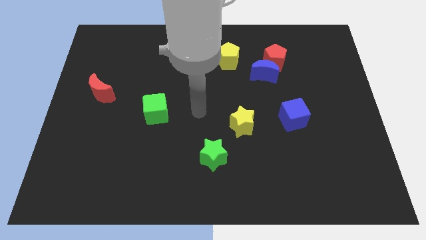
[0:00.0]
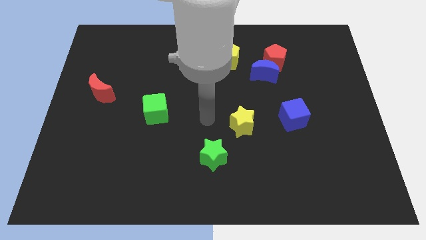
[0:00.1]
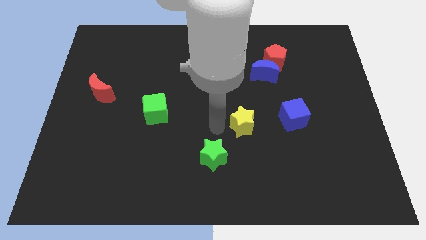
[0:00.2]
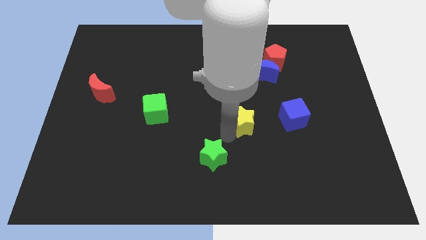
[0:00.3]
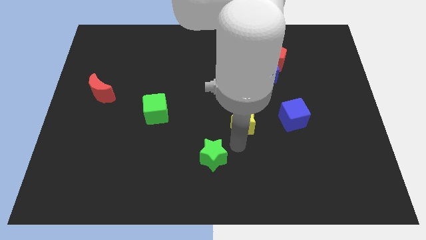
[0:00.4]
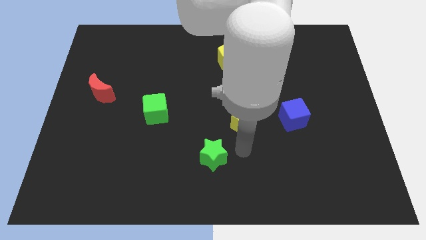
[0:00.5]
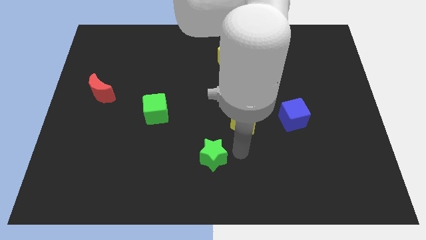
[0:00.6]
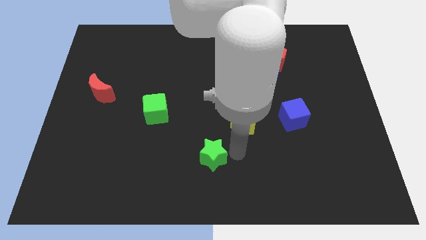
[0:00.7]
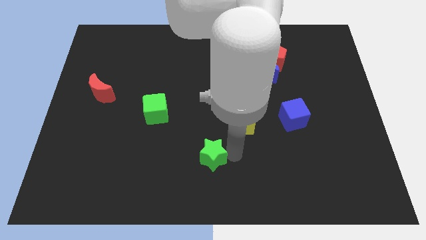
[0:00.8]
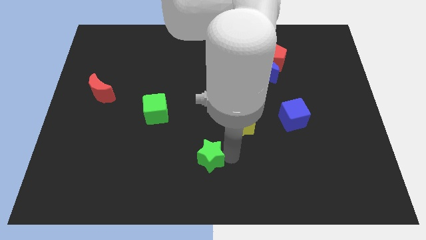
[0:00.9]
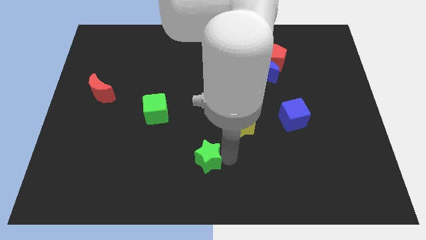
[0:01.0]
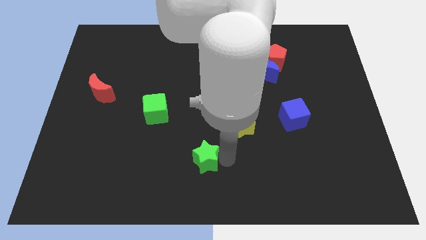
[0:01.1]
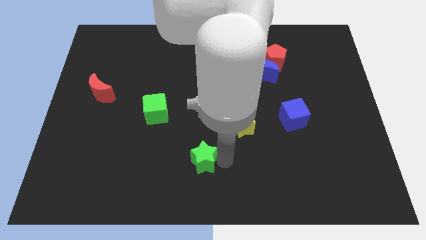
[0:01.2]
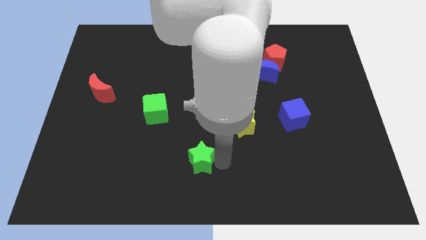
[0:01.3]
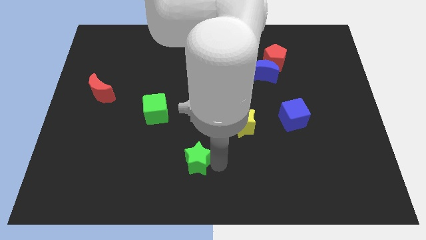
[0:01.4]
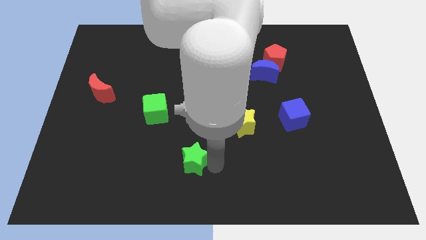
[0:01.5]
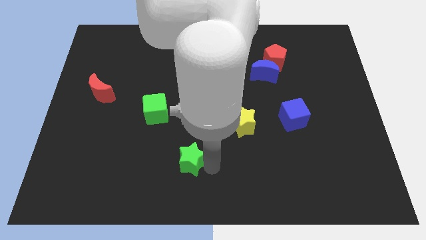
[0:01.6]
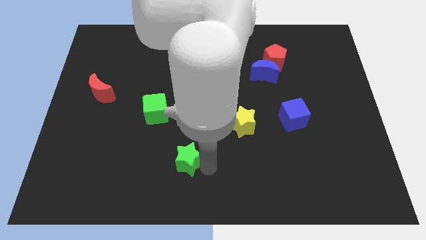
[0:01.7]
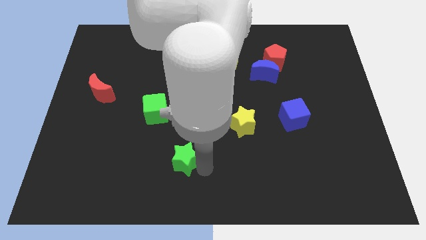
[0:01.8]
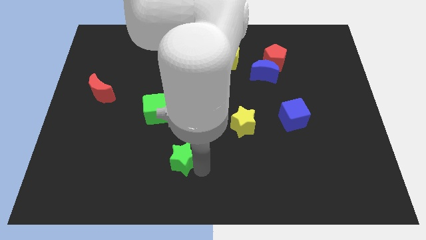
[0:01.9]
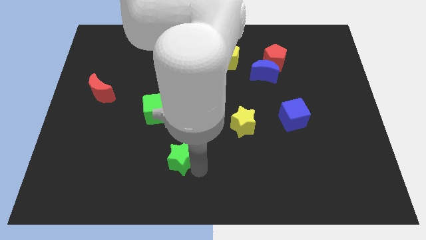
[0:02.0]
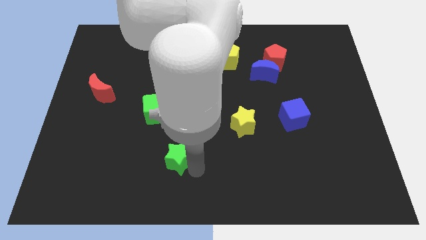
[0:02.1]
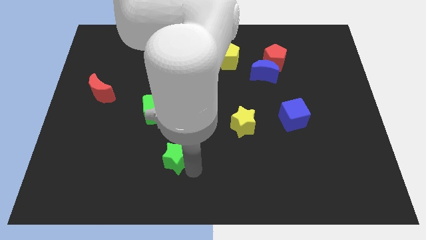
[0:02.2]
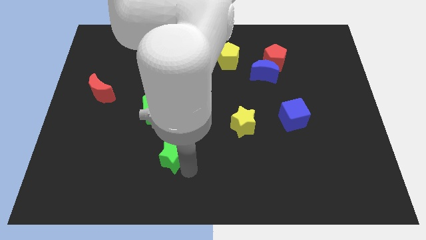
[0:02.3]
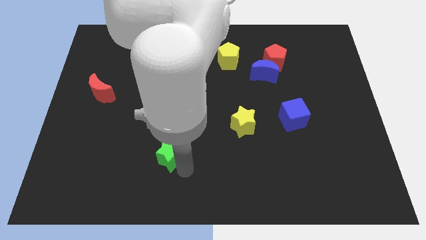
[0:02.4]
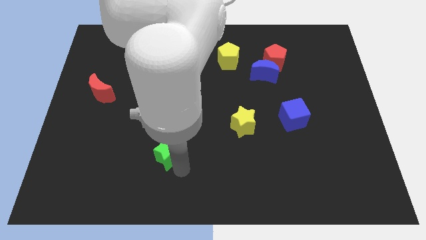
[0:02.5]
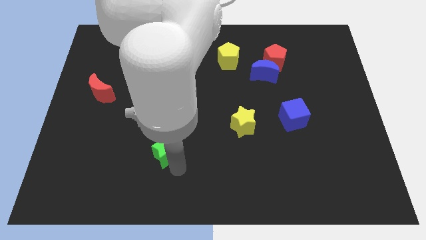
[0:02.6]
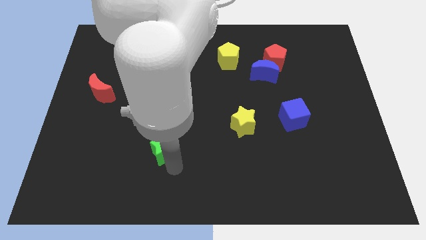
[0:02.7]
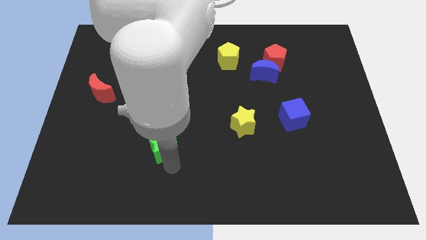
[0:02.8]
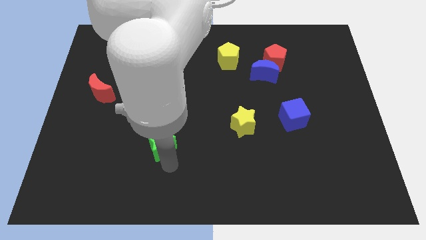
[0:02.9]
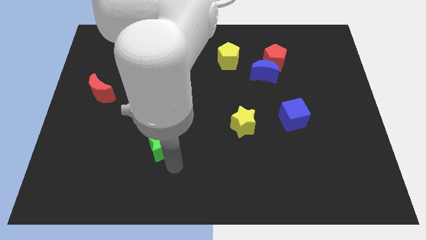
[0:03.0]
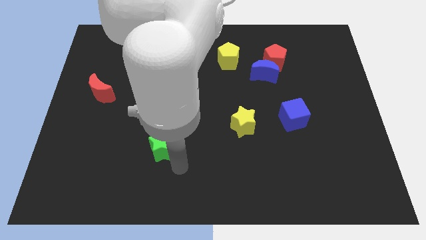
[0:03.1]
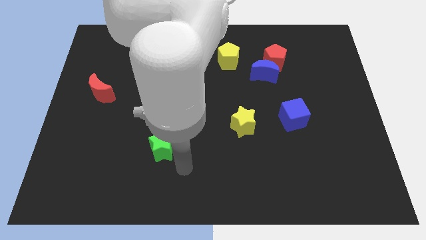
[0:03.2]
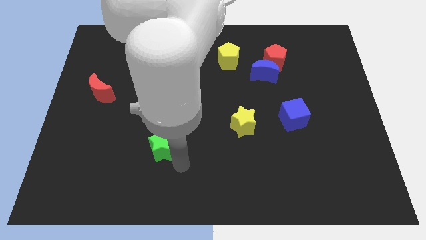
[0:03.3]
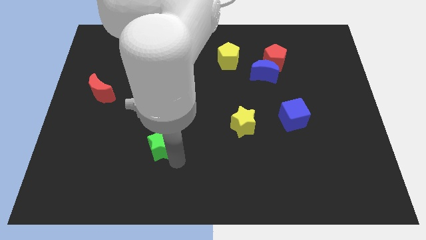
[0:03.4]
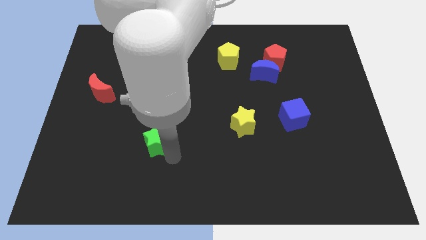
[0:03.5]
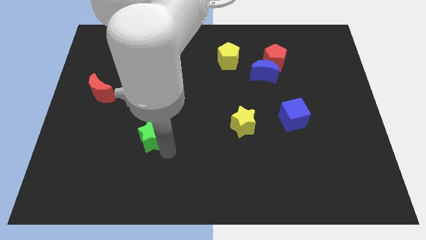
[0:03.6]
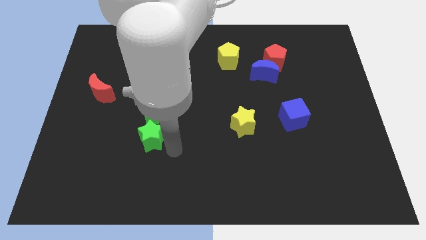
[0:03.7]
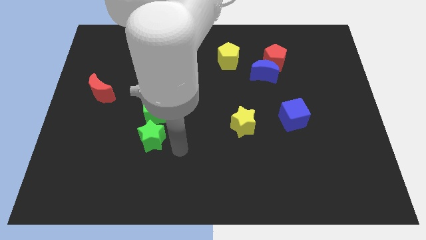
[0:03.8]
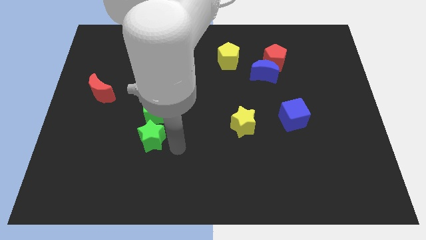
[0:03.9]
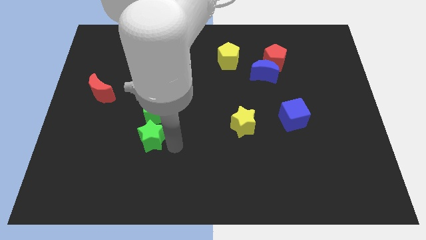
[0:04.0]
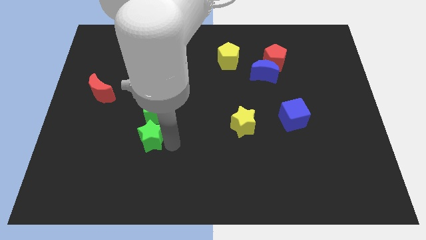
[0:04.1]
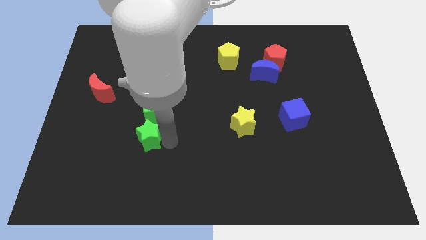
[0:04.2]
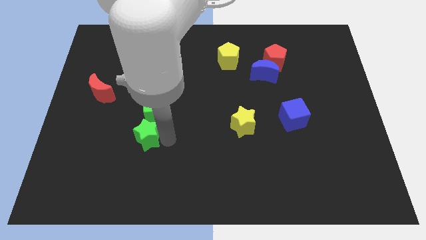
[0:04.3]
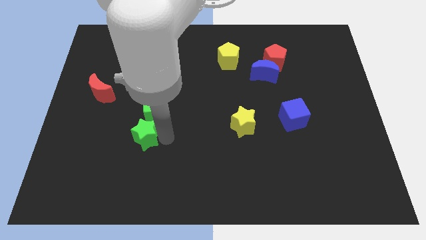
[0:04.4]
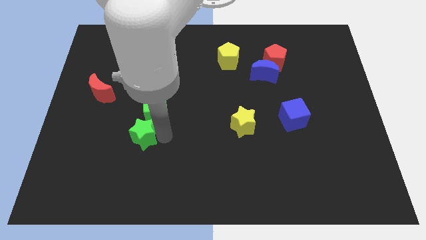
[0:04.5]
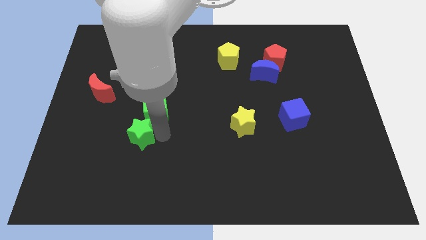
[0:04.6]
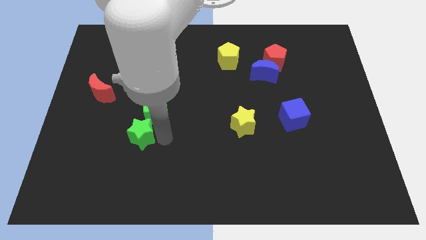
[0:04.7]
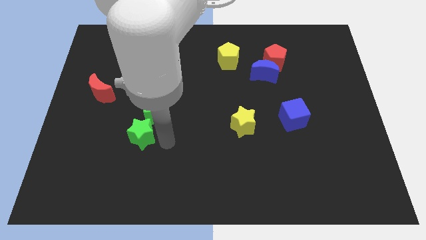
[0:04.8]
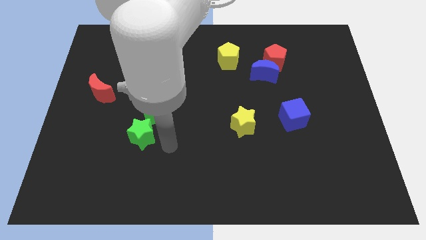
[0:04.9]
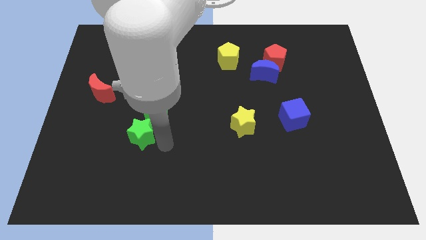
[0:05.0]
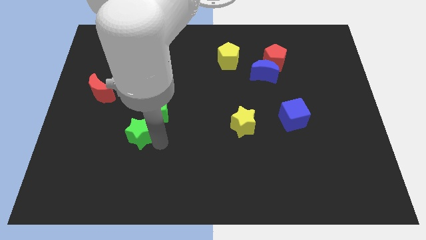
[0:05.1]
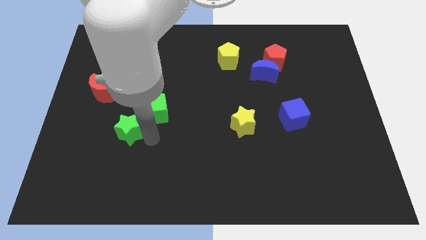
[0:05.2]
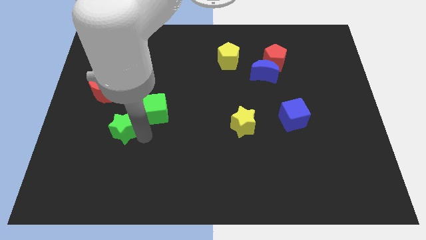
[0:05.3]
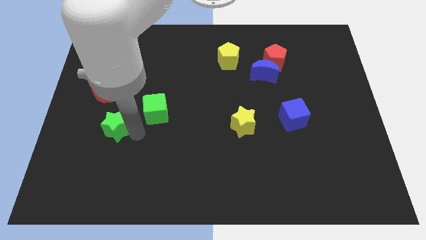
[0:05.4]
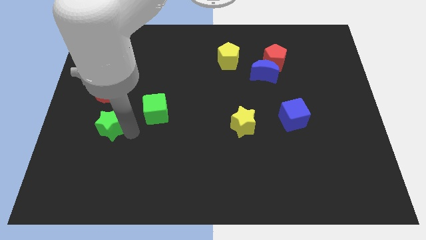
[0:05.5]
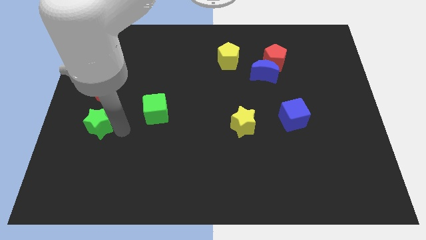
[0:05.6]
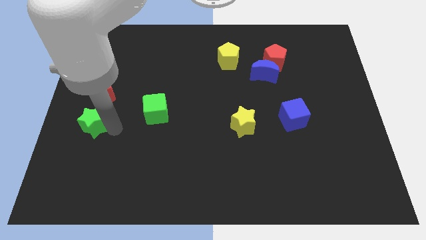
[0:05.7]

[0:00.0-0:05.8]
push the green star to the left side of the board

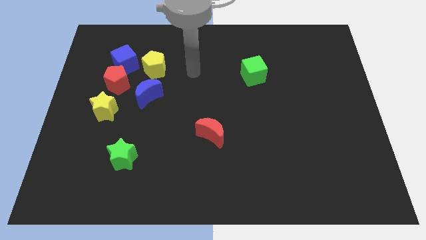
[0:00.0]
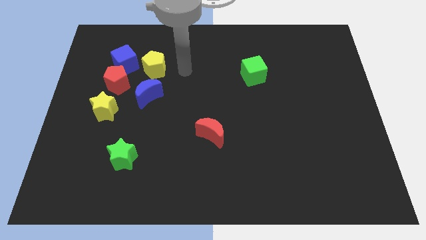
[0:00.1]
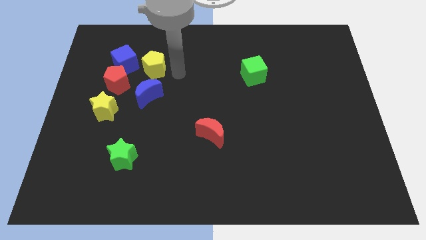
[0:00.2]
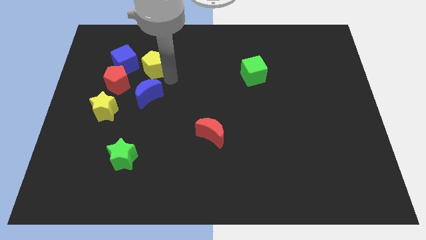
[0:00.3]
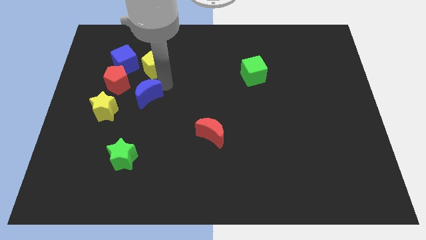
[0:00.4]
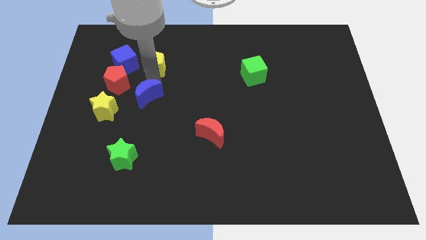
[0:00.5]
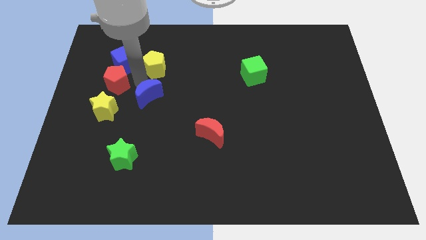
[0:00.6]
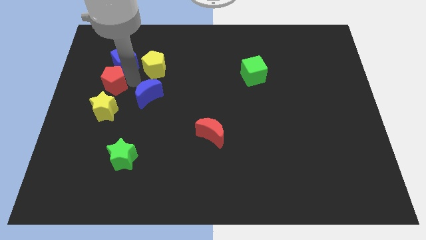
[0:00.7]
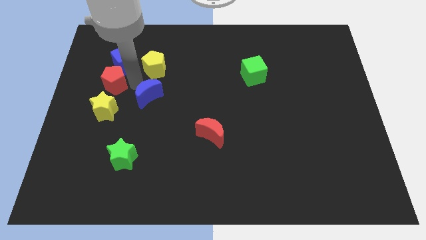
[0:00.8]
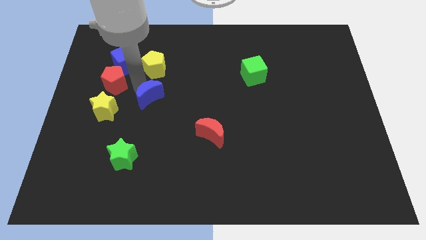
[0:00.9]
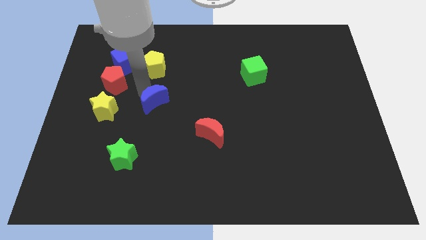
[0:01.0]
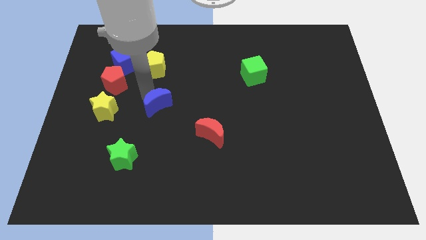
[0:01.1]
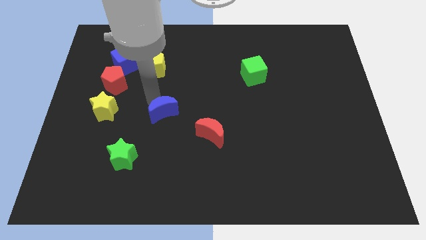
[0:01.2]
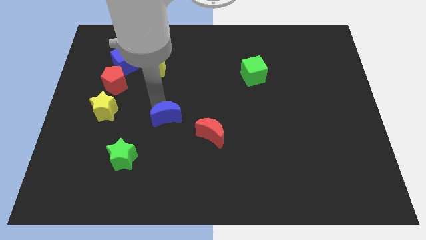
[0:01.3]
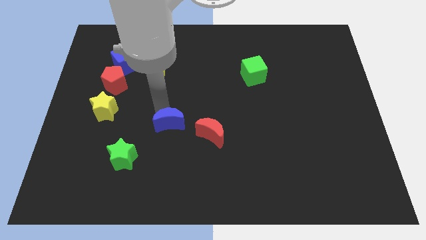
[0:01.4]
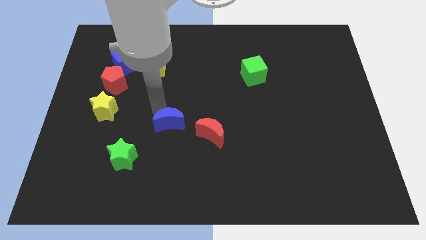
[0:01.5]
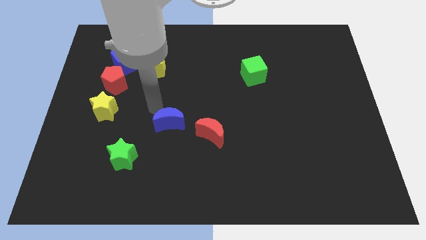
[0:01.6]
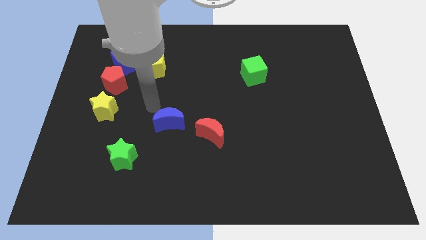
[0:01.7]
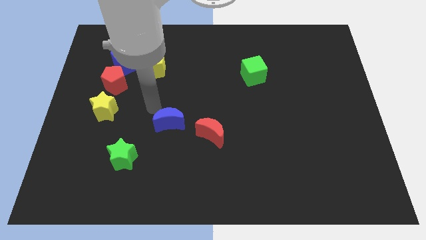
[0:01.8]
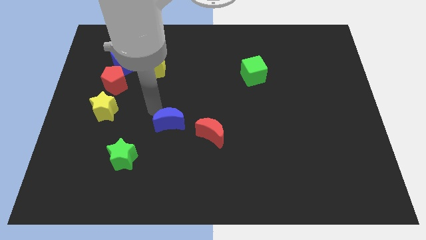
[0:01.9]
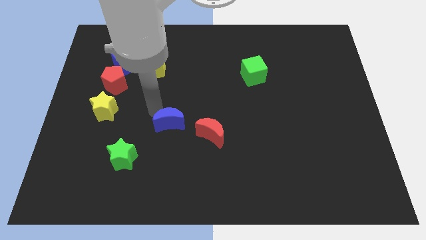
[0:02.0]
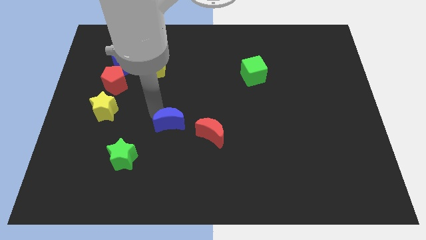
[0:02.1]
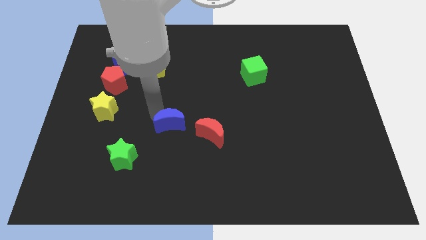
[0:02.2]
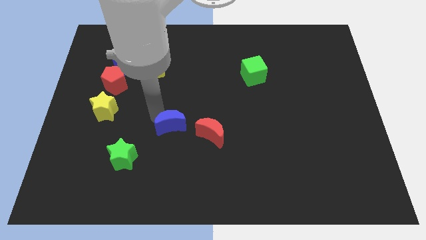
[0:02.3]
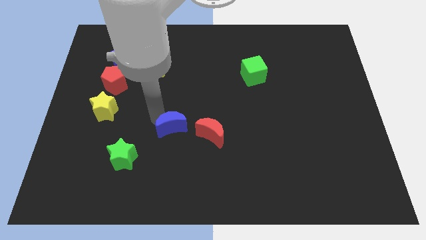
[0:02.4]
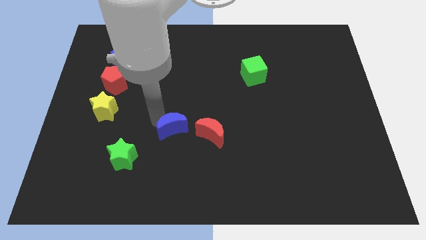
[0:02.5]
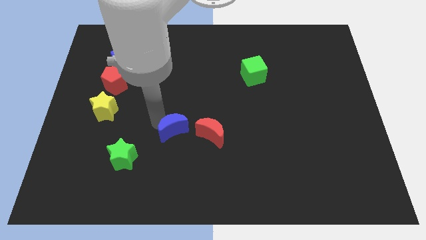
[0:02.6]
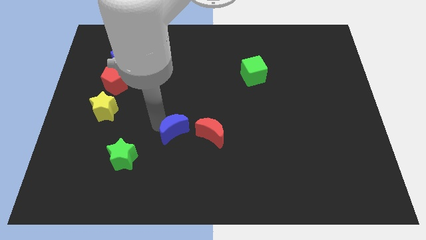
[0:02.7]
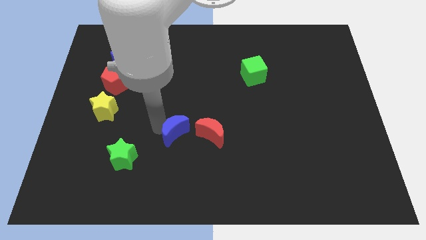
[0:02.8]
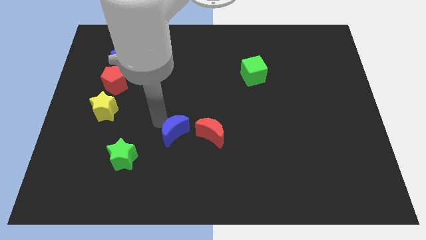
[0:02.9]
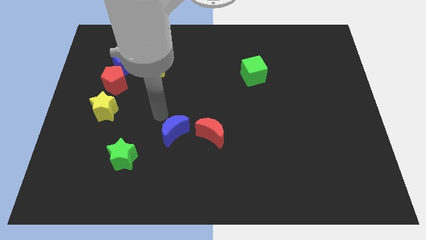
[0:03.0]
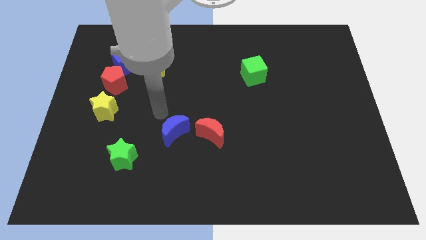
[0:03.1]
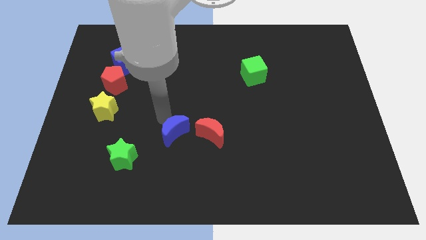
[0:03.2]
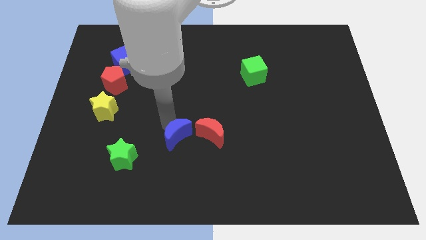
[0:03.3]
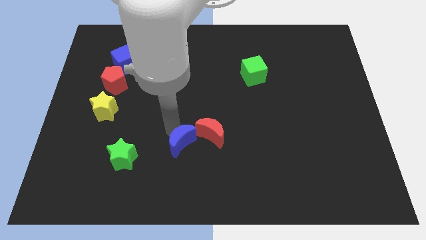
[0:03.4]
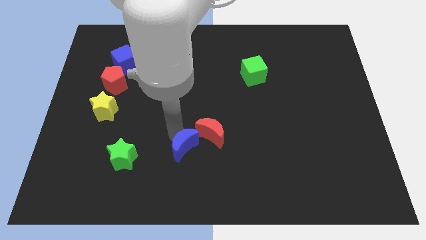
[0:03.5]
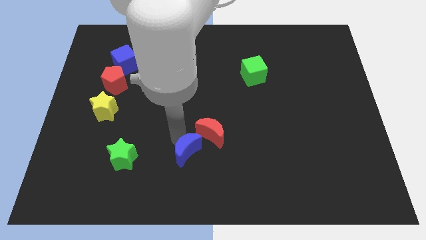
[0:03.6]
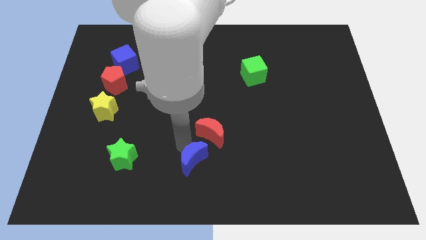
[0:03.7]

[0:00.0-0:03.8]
move the blue moon to the bottom
